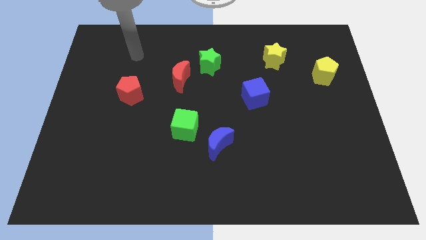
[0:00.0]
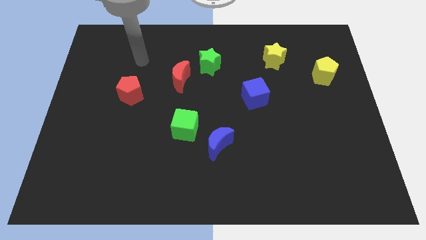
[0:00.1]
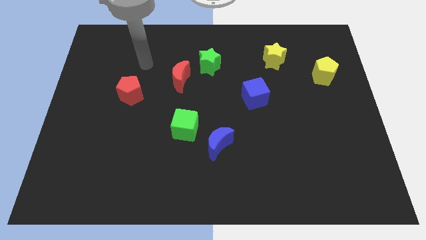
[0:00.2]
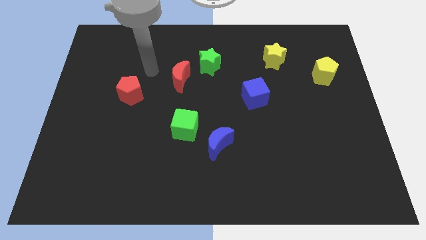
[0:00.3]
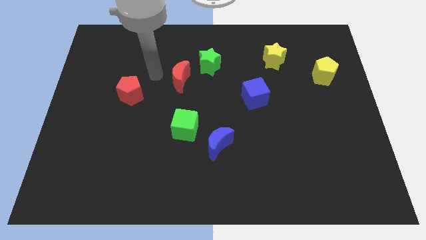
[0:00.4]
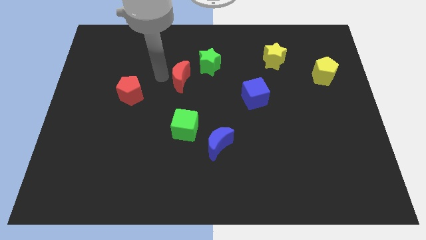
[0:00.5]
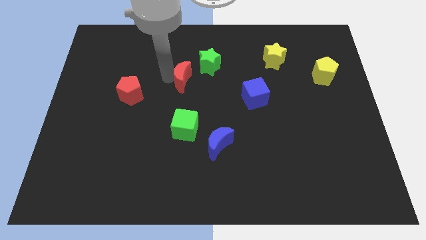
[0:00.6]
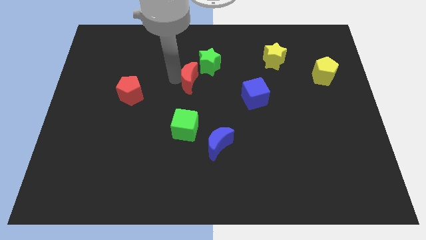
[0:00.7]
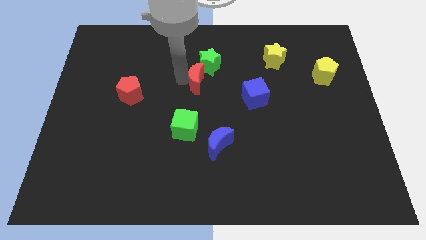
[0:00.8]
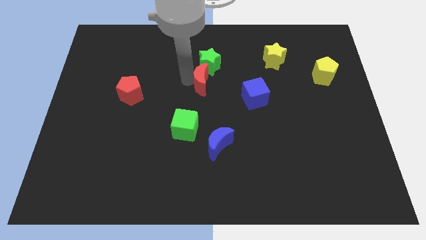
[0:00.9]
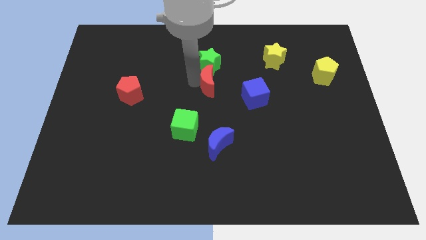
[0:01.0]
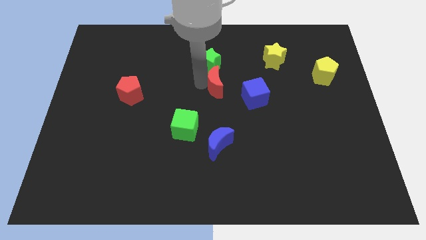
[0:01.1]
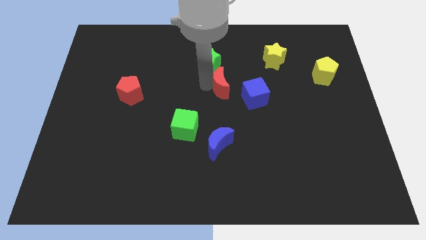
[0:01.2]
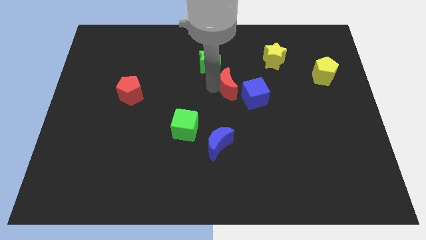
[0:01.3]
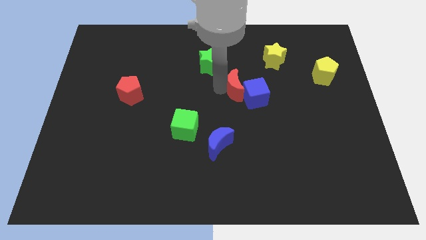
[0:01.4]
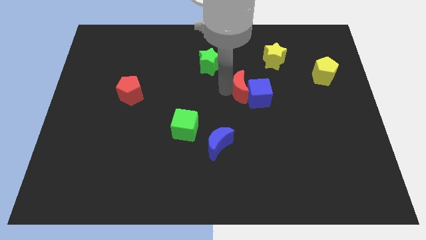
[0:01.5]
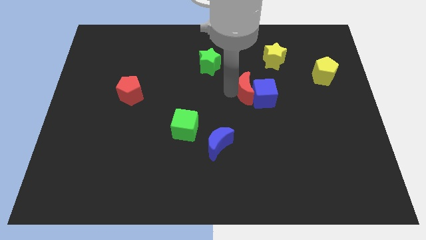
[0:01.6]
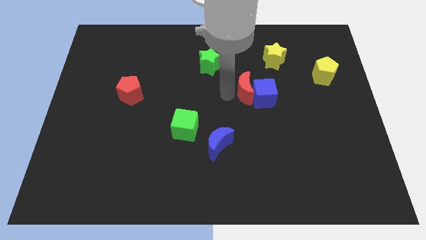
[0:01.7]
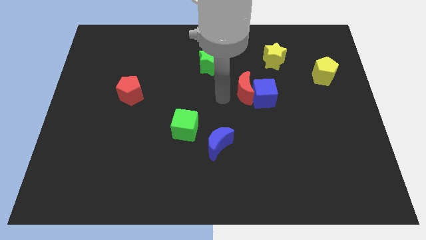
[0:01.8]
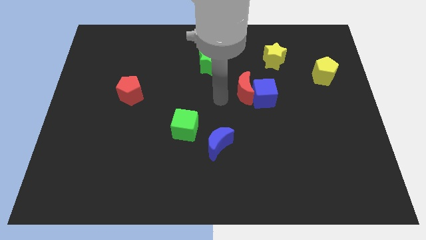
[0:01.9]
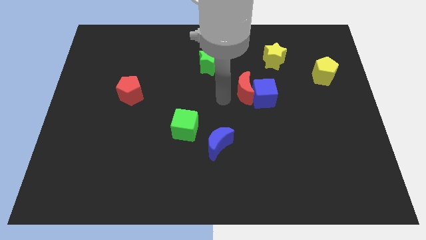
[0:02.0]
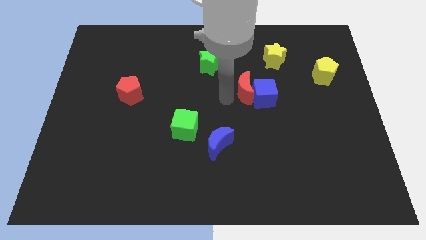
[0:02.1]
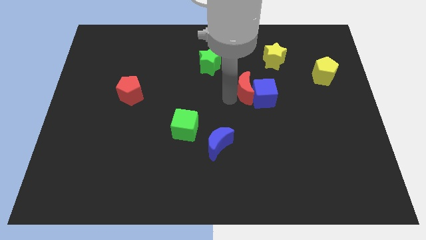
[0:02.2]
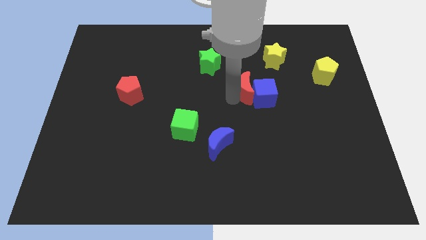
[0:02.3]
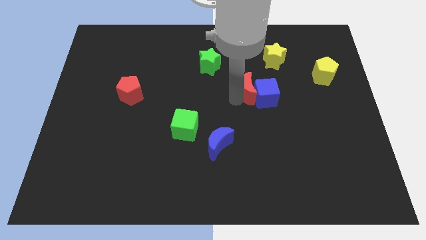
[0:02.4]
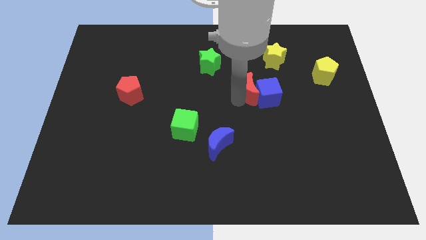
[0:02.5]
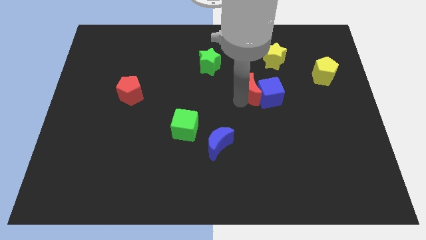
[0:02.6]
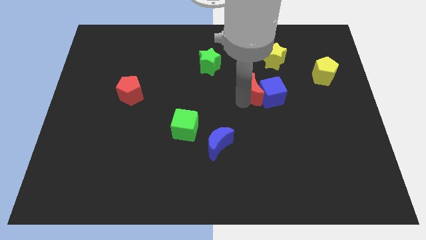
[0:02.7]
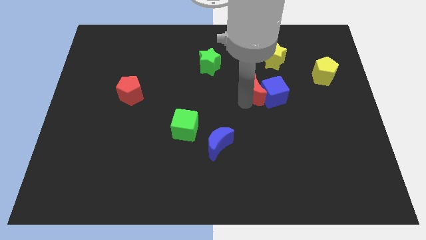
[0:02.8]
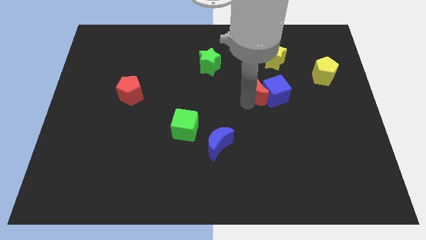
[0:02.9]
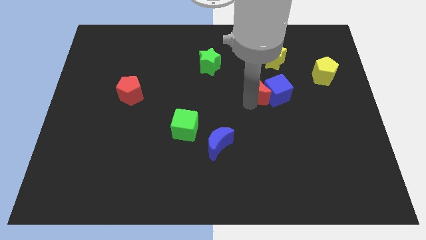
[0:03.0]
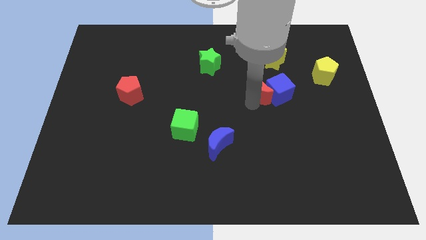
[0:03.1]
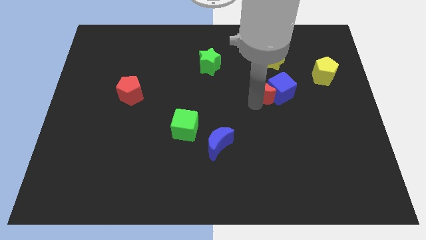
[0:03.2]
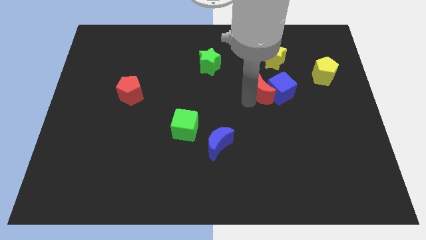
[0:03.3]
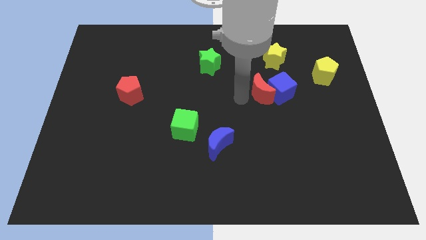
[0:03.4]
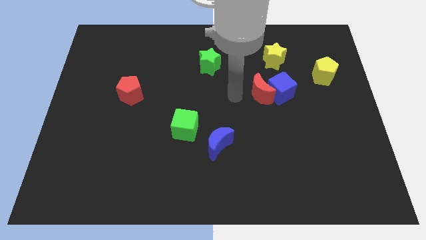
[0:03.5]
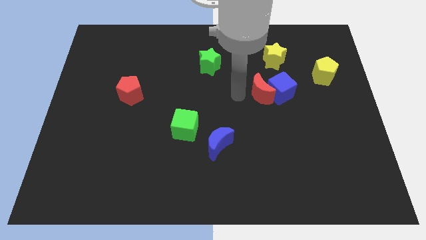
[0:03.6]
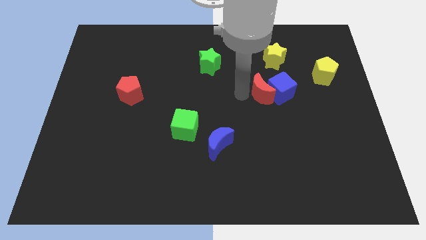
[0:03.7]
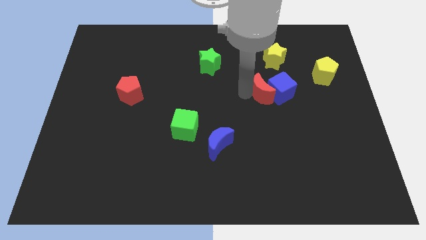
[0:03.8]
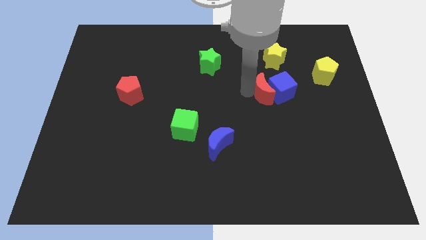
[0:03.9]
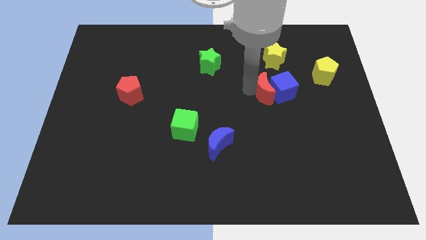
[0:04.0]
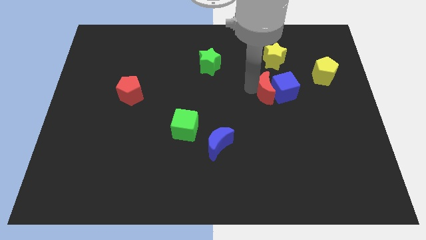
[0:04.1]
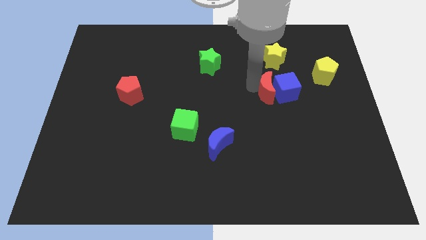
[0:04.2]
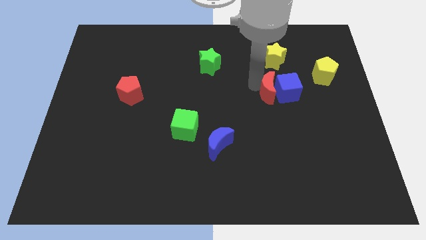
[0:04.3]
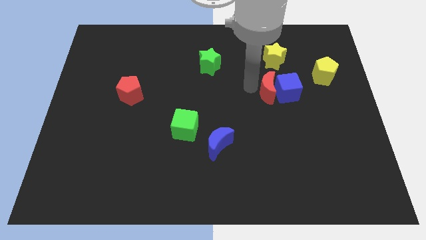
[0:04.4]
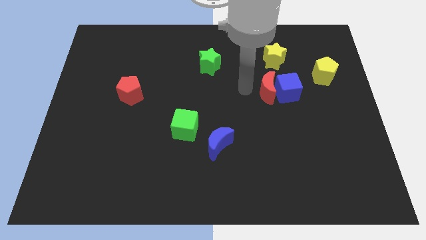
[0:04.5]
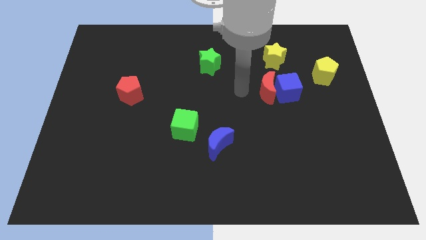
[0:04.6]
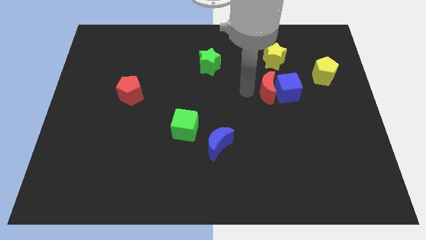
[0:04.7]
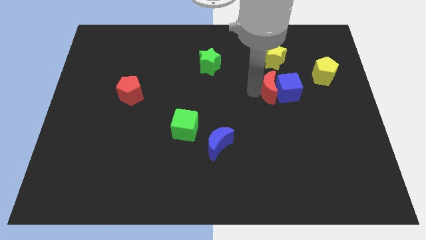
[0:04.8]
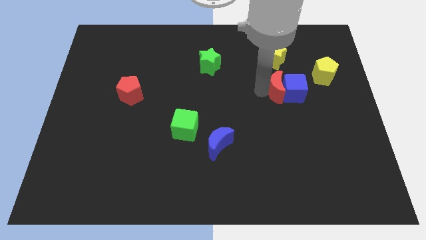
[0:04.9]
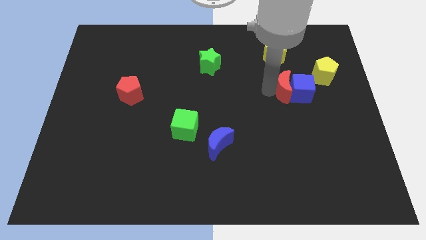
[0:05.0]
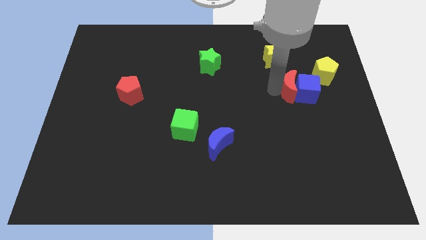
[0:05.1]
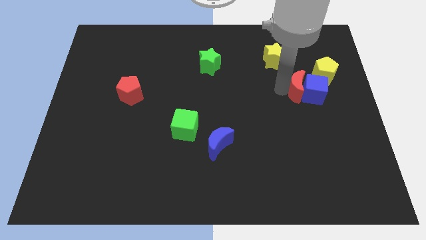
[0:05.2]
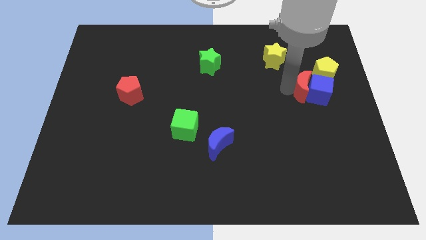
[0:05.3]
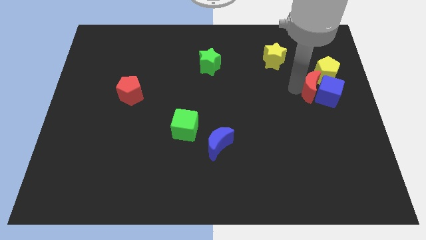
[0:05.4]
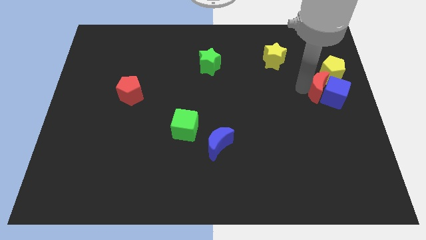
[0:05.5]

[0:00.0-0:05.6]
put the red moon to the center right

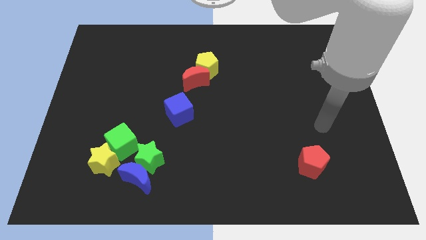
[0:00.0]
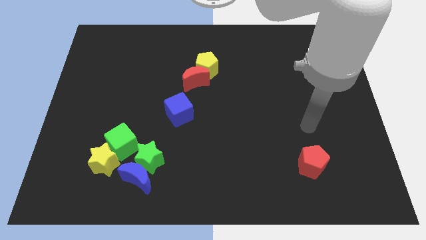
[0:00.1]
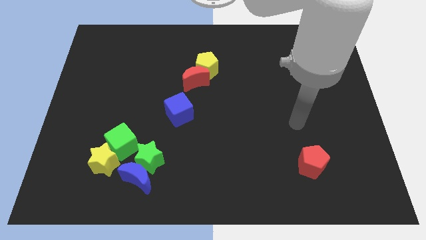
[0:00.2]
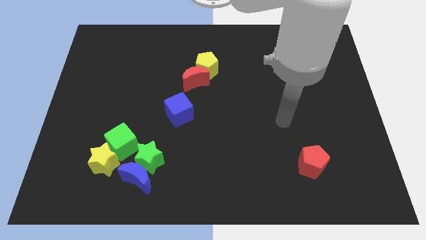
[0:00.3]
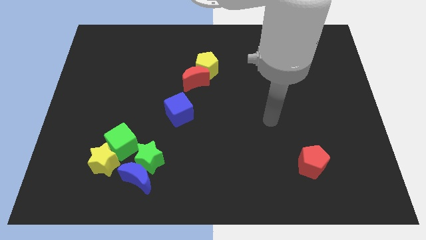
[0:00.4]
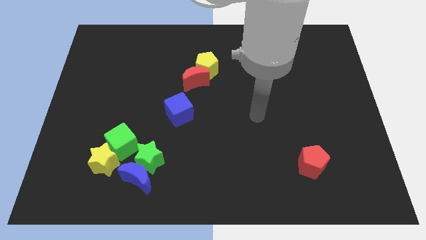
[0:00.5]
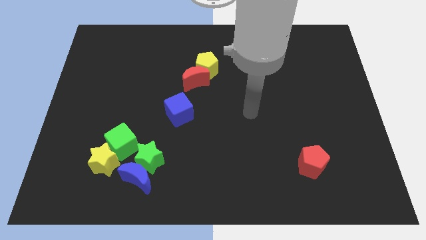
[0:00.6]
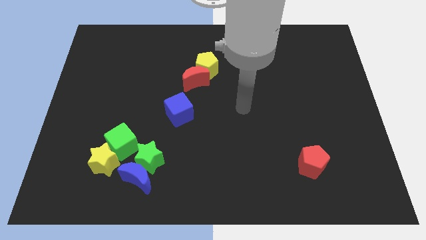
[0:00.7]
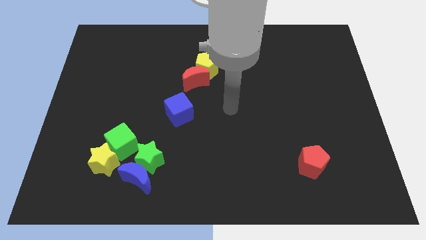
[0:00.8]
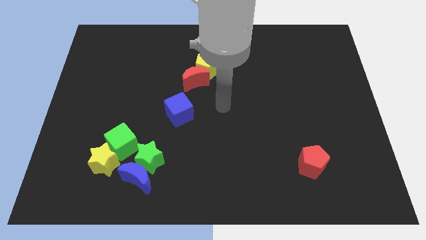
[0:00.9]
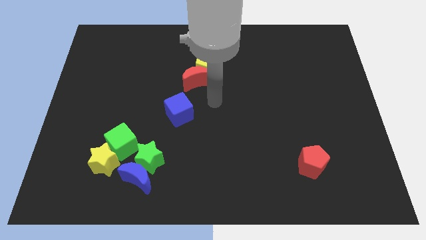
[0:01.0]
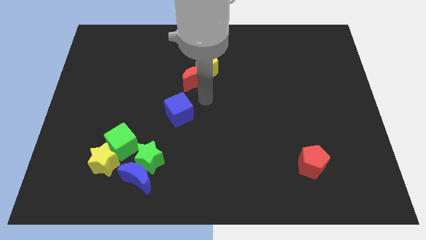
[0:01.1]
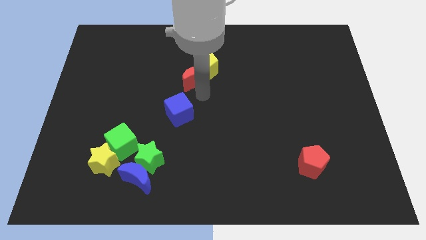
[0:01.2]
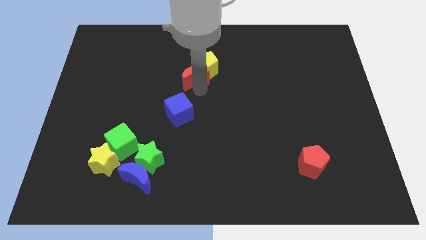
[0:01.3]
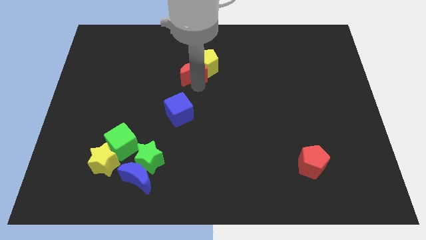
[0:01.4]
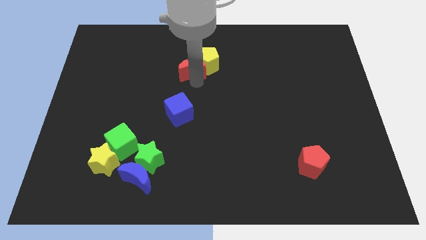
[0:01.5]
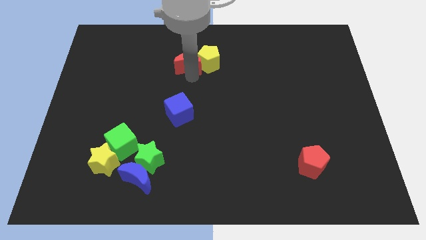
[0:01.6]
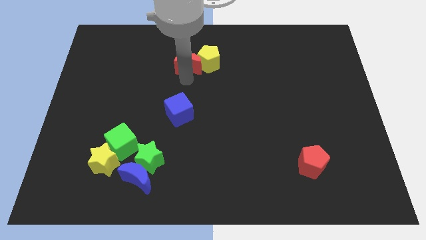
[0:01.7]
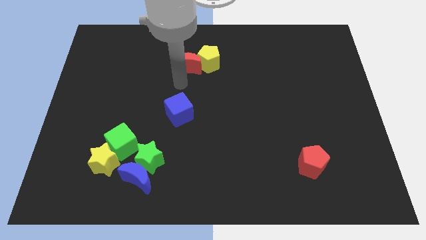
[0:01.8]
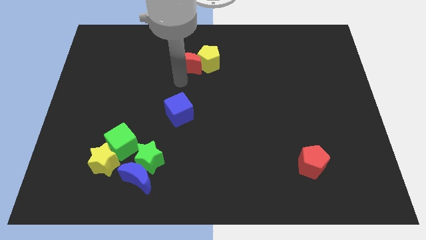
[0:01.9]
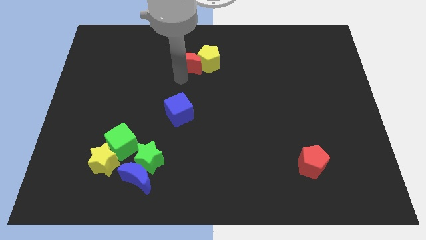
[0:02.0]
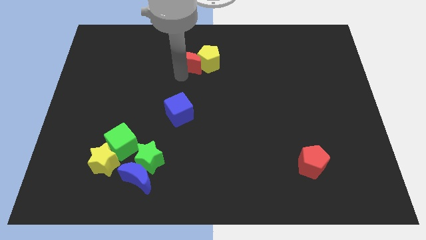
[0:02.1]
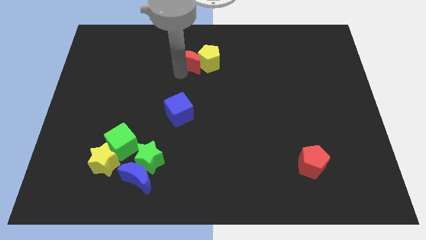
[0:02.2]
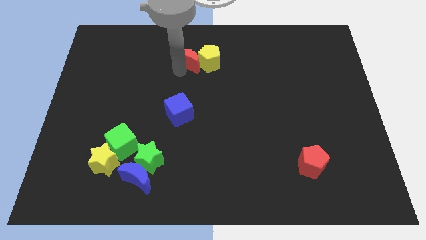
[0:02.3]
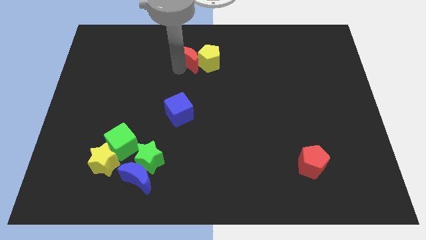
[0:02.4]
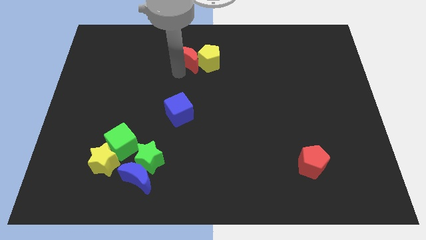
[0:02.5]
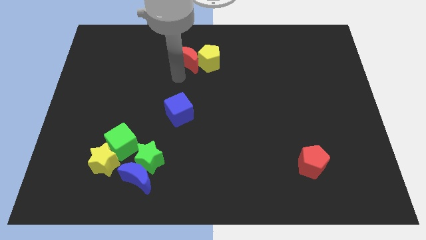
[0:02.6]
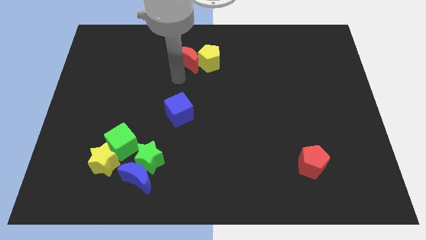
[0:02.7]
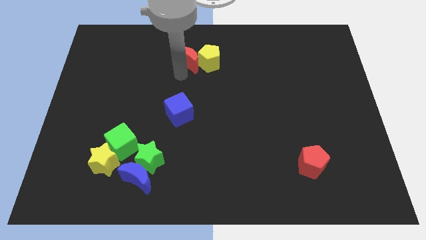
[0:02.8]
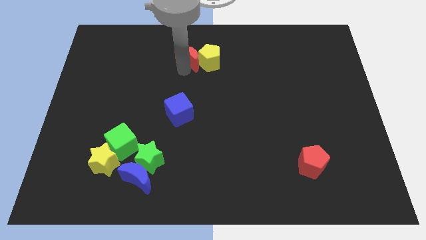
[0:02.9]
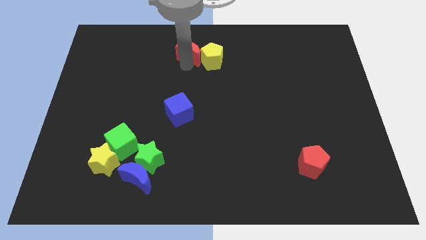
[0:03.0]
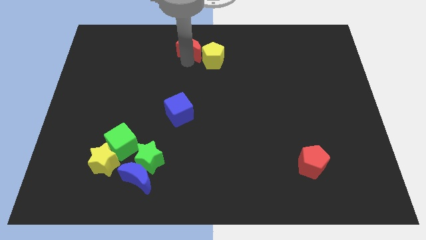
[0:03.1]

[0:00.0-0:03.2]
slide the red moon to the towards your base
